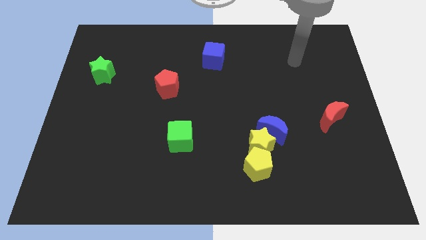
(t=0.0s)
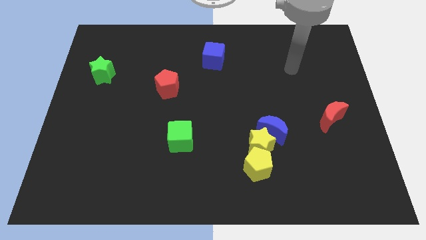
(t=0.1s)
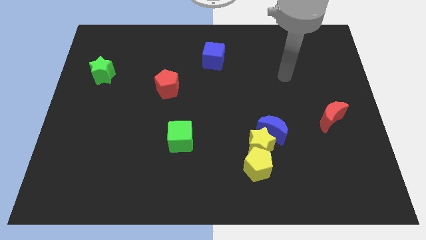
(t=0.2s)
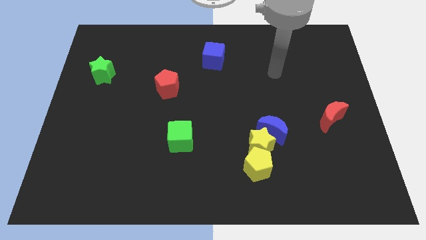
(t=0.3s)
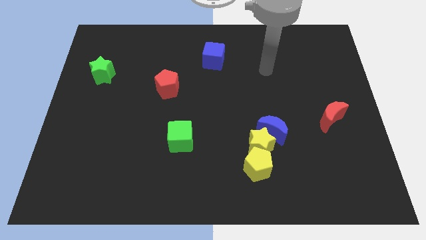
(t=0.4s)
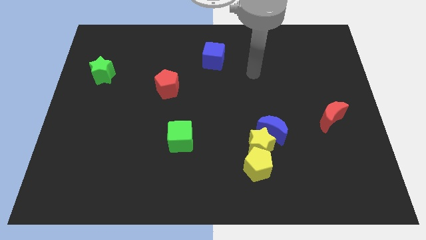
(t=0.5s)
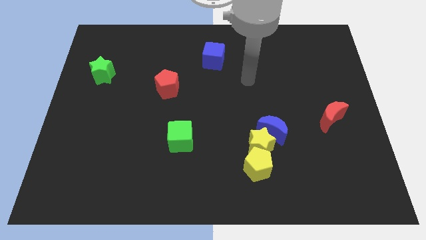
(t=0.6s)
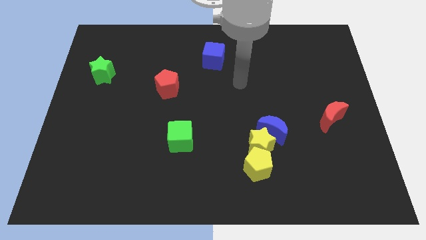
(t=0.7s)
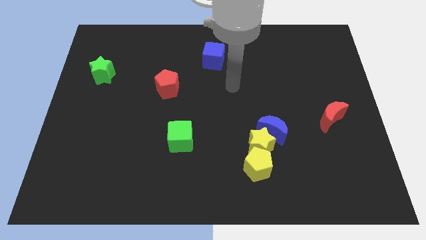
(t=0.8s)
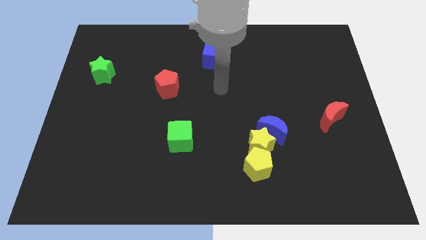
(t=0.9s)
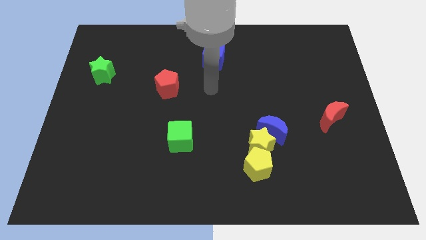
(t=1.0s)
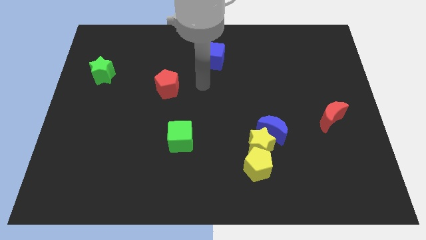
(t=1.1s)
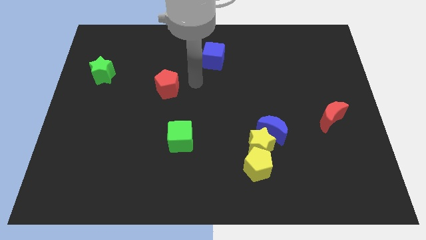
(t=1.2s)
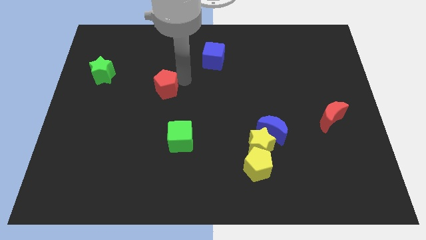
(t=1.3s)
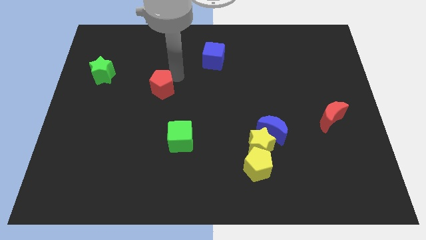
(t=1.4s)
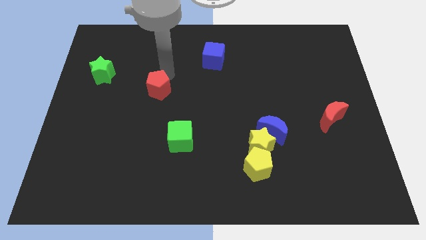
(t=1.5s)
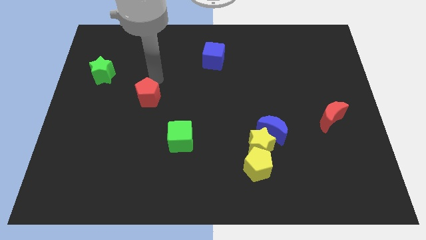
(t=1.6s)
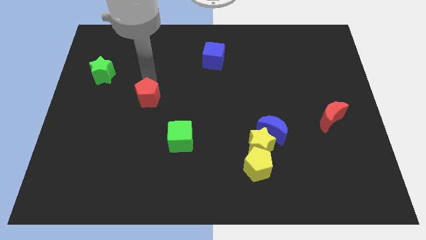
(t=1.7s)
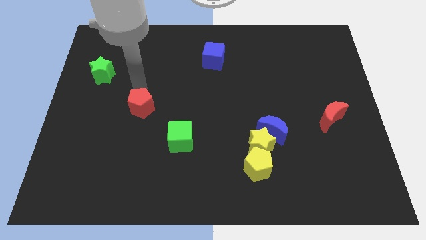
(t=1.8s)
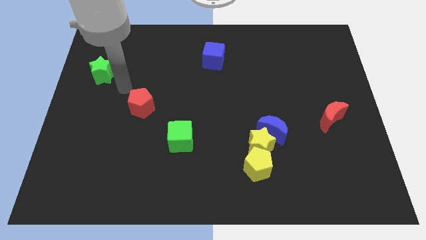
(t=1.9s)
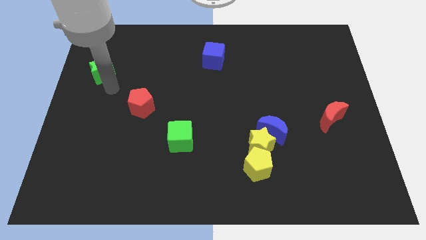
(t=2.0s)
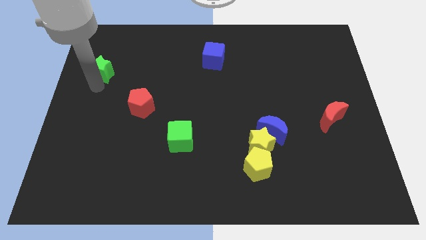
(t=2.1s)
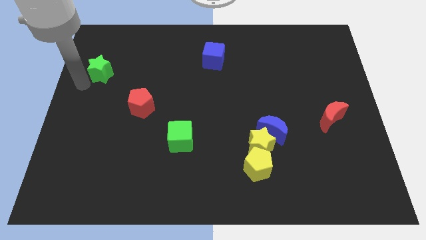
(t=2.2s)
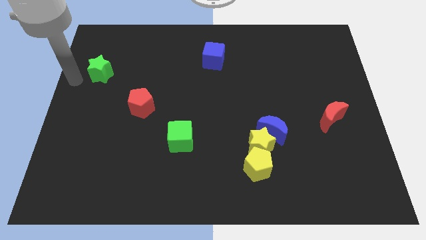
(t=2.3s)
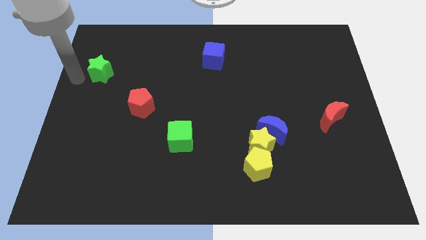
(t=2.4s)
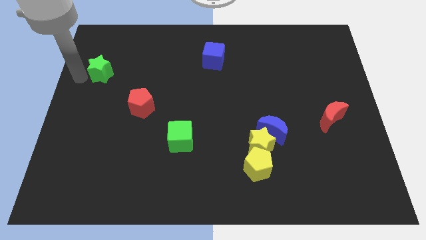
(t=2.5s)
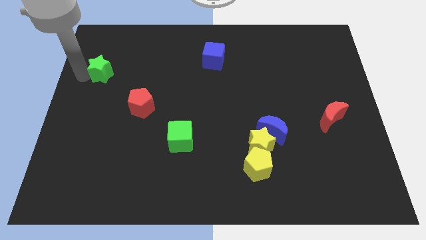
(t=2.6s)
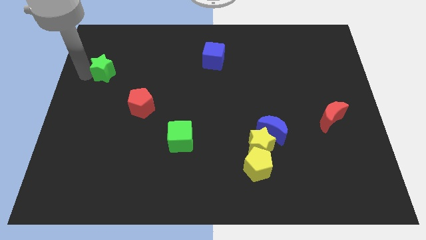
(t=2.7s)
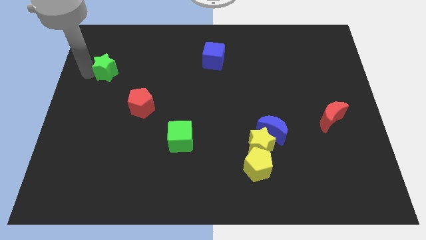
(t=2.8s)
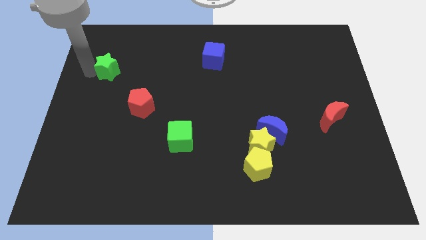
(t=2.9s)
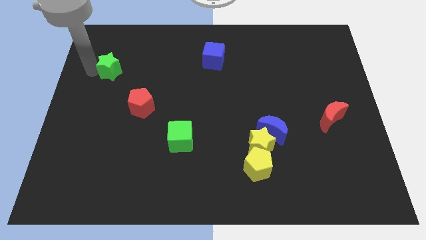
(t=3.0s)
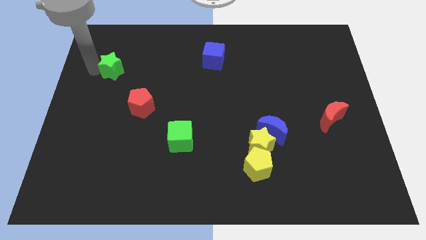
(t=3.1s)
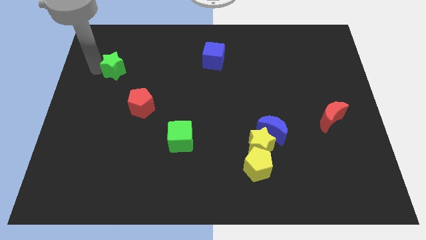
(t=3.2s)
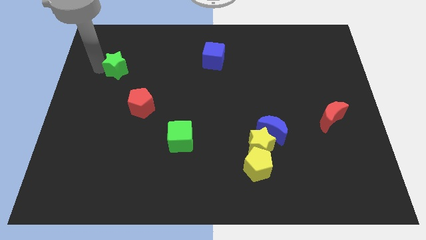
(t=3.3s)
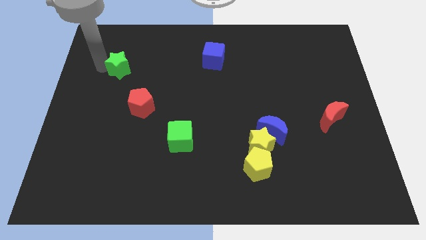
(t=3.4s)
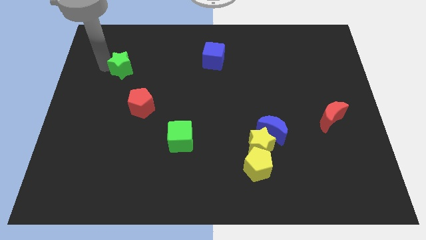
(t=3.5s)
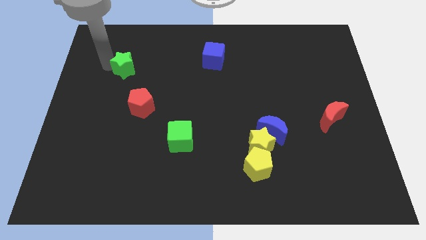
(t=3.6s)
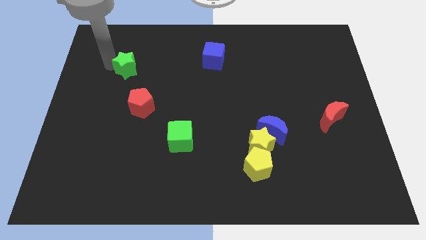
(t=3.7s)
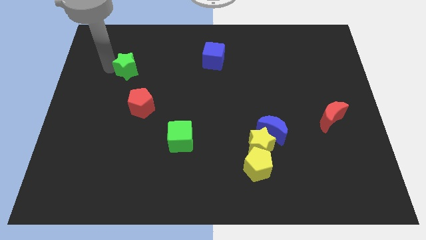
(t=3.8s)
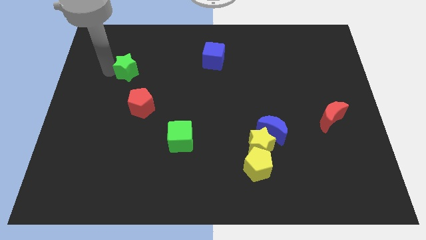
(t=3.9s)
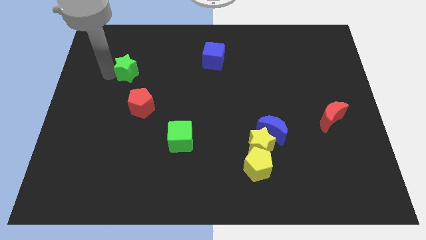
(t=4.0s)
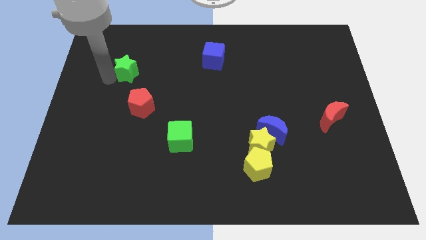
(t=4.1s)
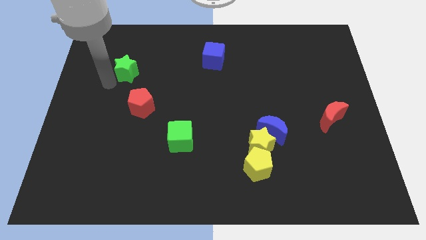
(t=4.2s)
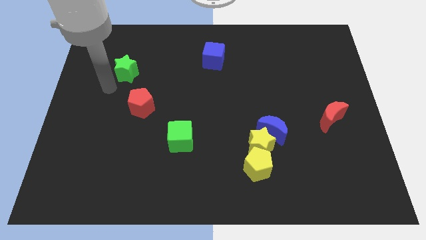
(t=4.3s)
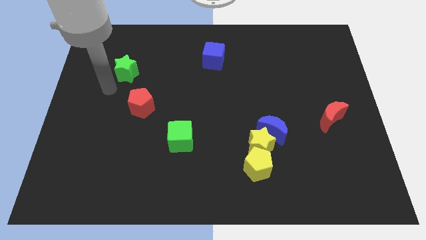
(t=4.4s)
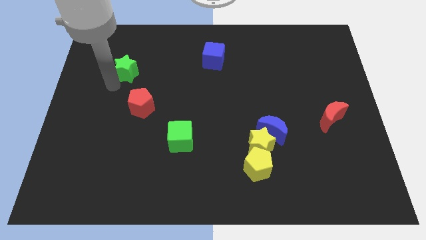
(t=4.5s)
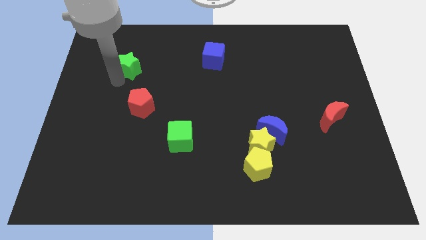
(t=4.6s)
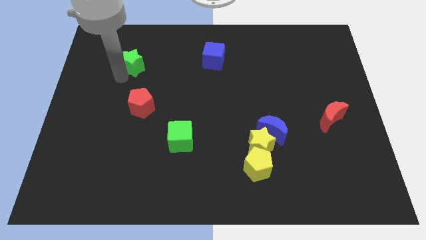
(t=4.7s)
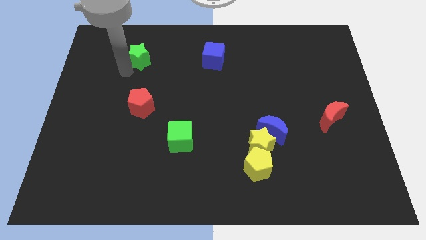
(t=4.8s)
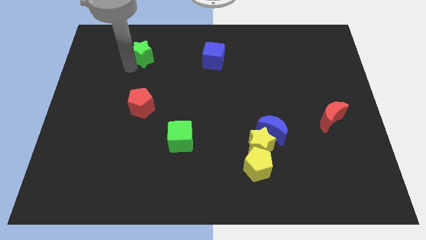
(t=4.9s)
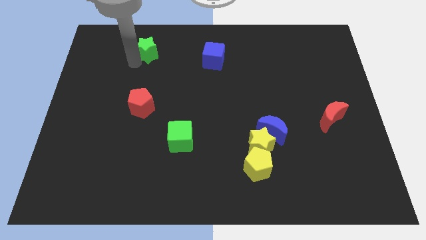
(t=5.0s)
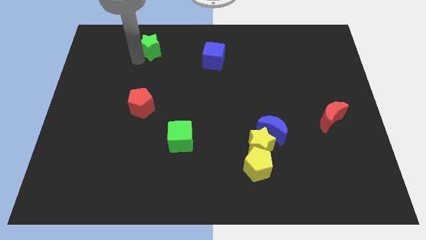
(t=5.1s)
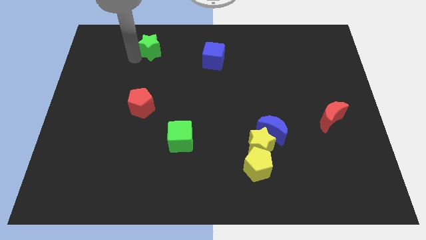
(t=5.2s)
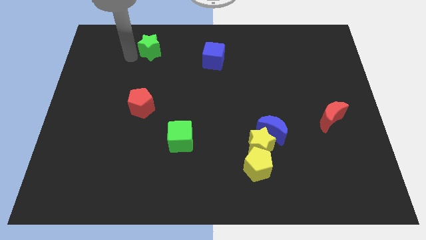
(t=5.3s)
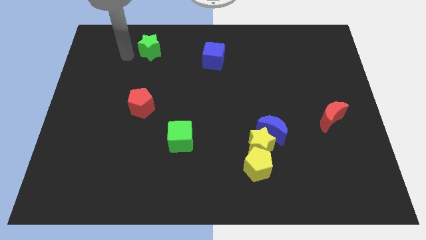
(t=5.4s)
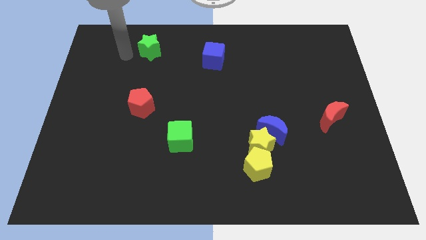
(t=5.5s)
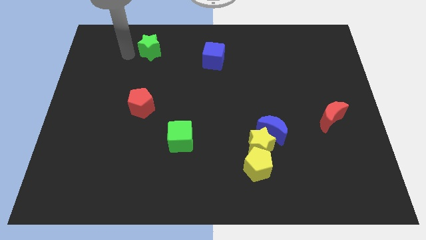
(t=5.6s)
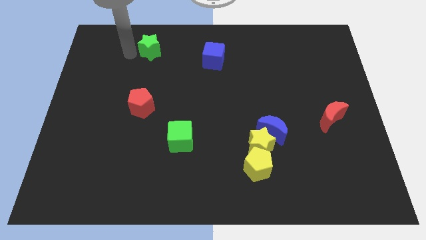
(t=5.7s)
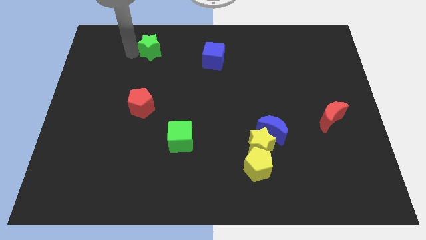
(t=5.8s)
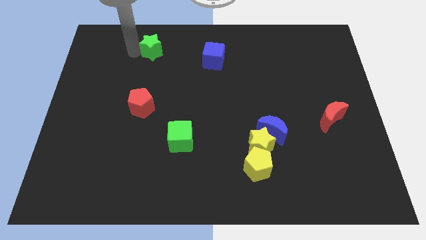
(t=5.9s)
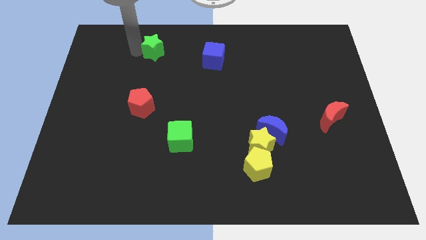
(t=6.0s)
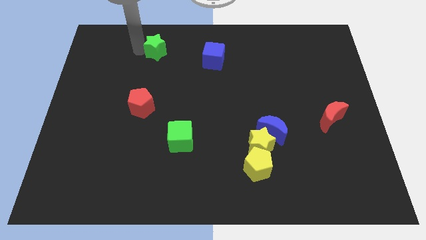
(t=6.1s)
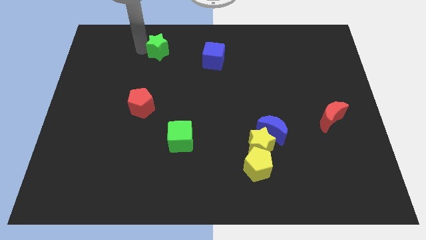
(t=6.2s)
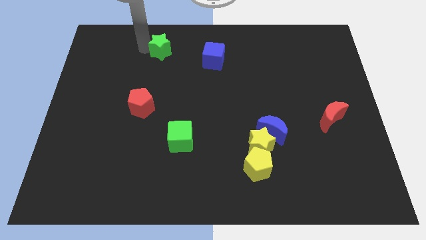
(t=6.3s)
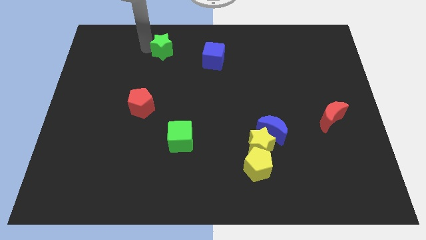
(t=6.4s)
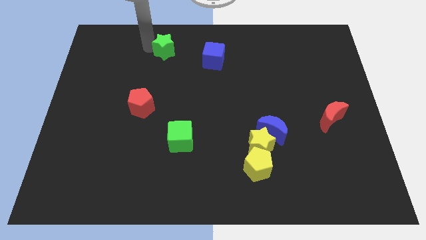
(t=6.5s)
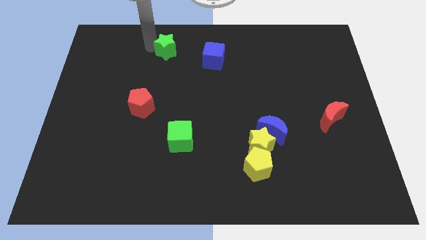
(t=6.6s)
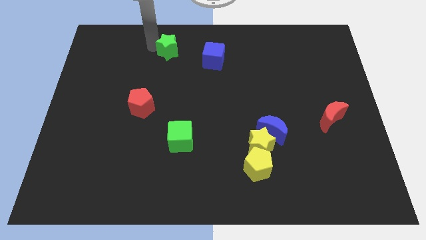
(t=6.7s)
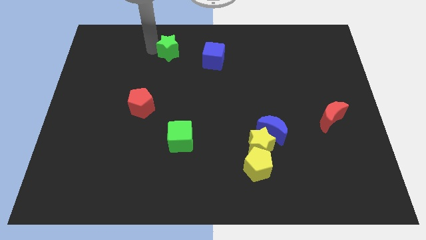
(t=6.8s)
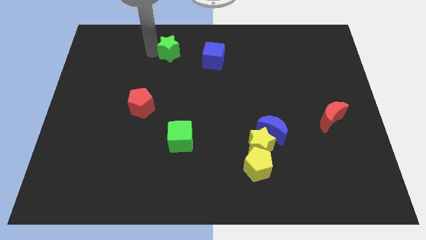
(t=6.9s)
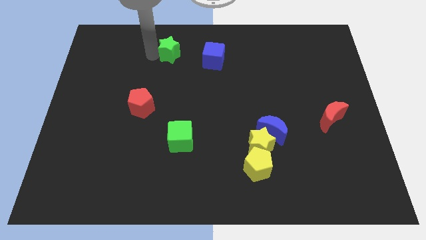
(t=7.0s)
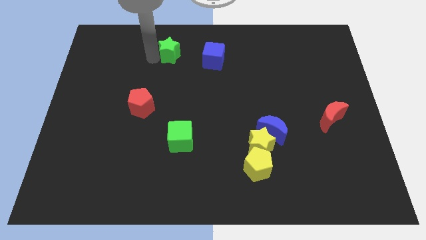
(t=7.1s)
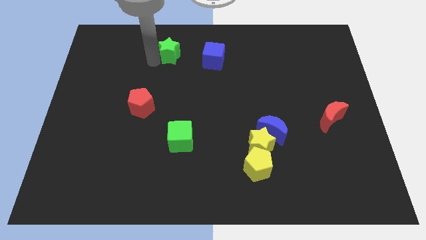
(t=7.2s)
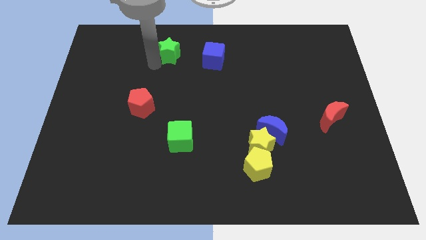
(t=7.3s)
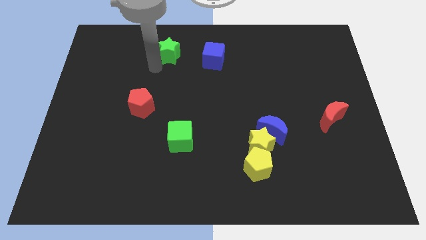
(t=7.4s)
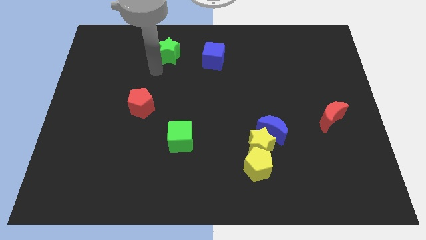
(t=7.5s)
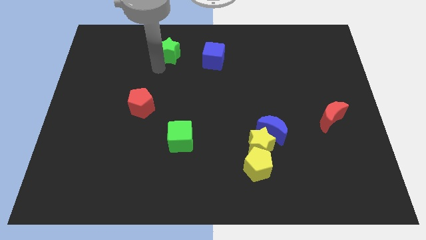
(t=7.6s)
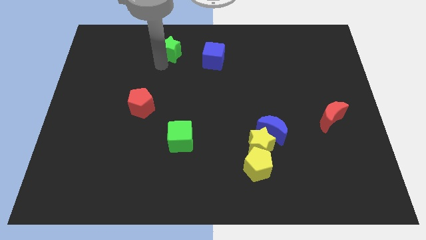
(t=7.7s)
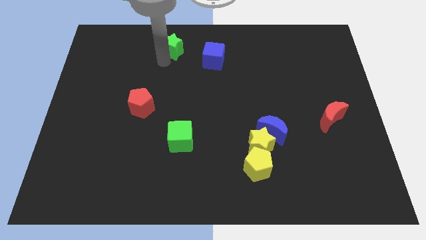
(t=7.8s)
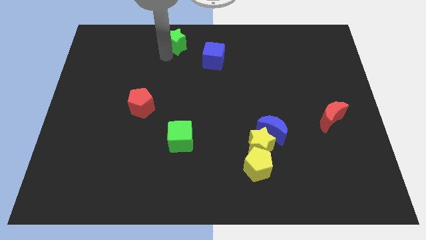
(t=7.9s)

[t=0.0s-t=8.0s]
move the green star to the top
